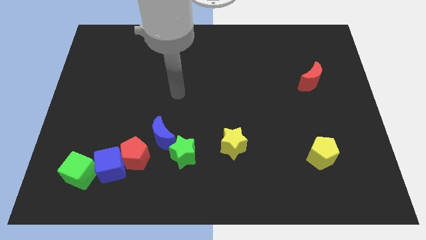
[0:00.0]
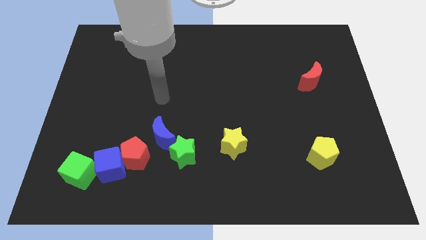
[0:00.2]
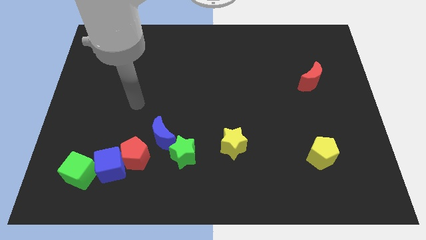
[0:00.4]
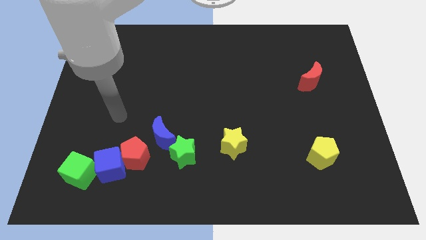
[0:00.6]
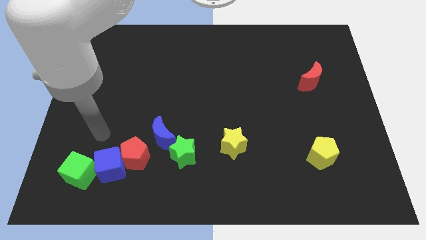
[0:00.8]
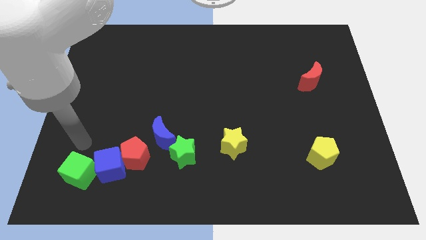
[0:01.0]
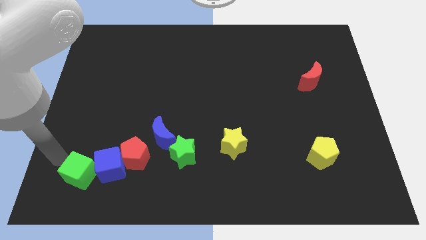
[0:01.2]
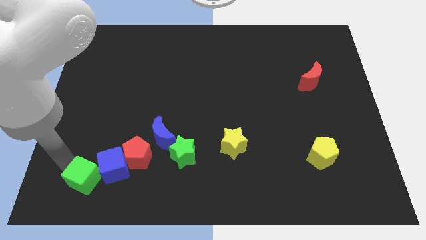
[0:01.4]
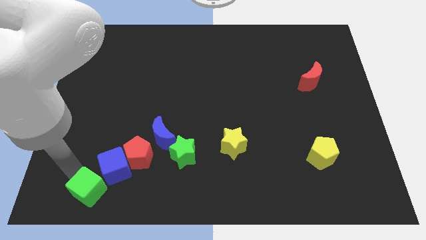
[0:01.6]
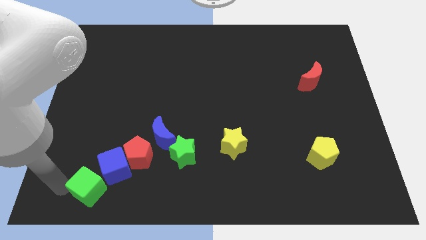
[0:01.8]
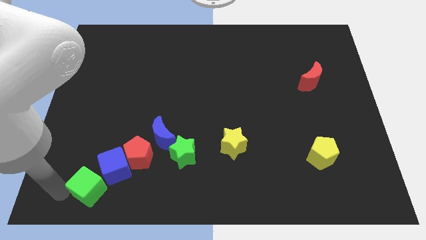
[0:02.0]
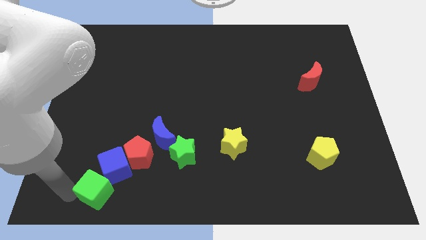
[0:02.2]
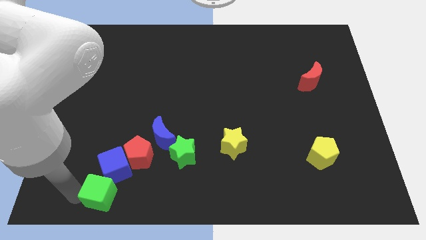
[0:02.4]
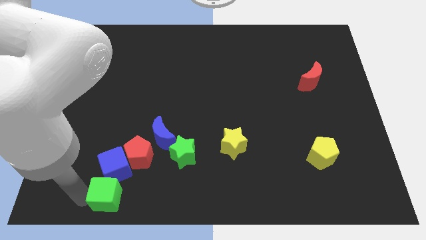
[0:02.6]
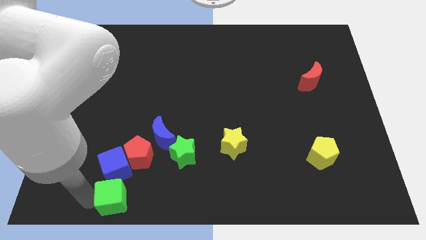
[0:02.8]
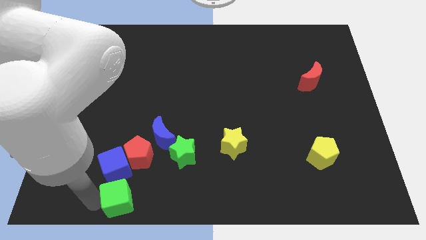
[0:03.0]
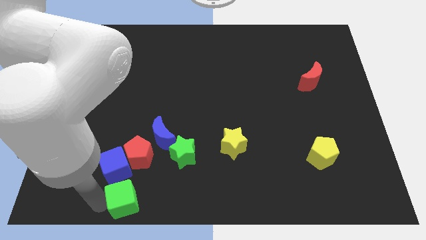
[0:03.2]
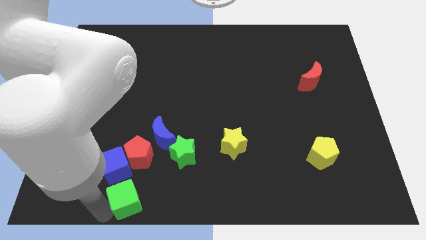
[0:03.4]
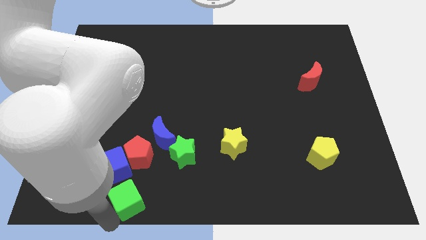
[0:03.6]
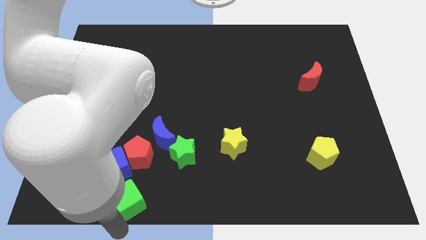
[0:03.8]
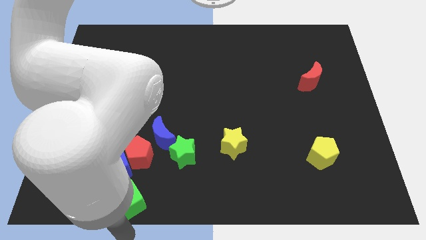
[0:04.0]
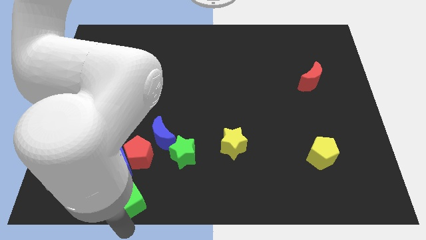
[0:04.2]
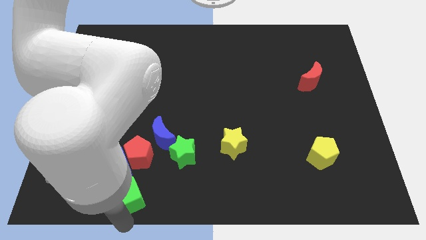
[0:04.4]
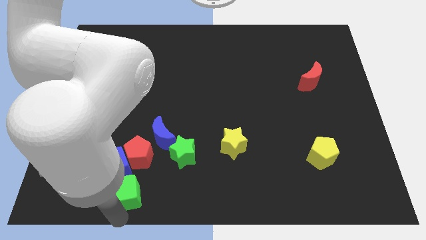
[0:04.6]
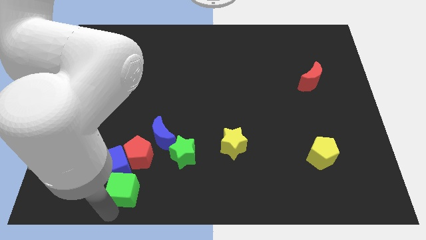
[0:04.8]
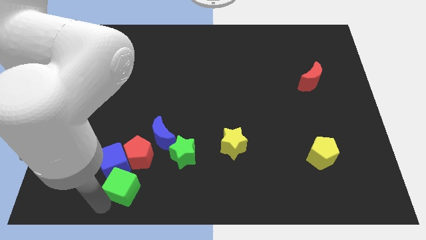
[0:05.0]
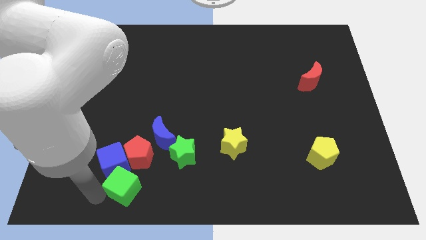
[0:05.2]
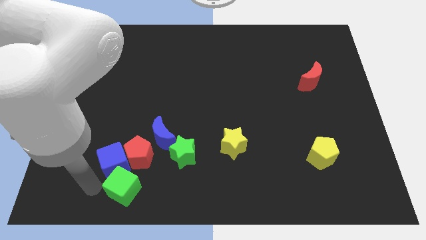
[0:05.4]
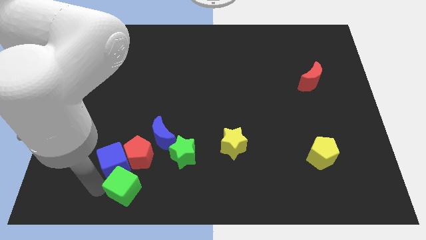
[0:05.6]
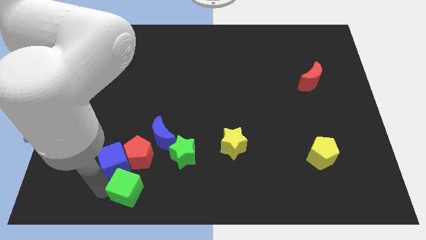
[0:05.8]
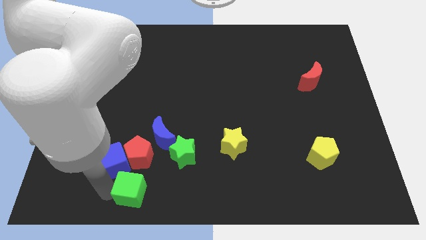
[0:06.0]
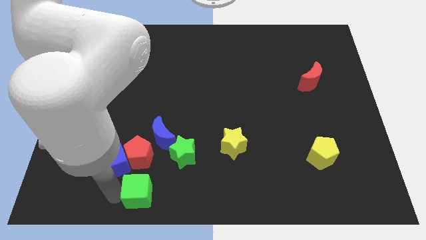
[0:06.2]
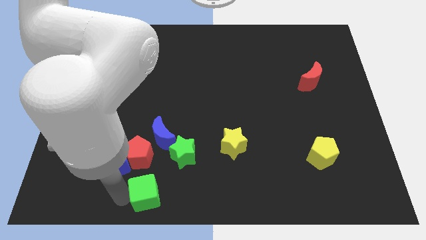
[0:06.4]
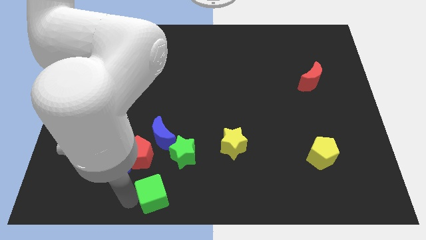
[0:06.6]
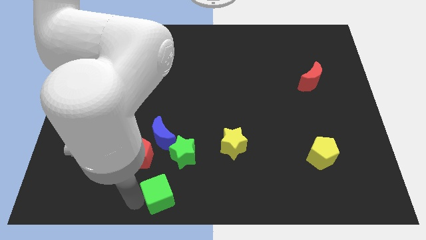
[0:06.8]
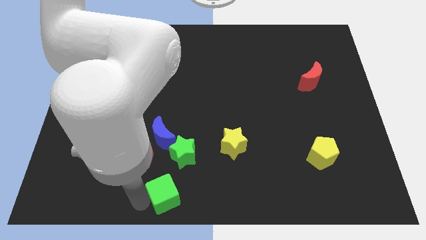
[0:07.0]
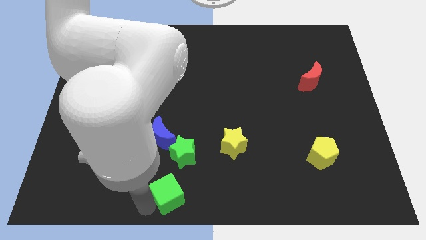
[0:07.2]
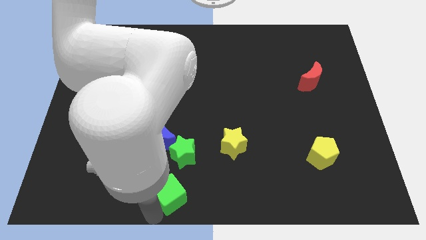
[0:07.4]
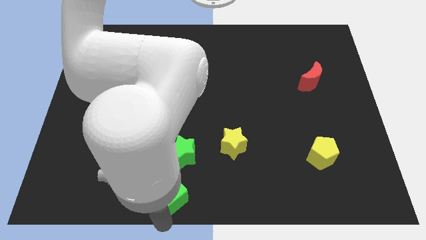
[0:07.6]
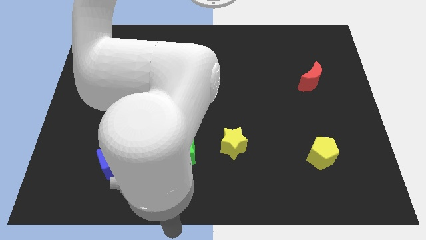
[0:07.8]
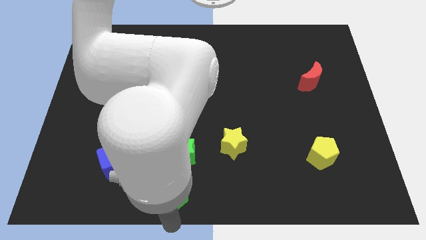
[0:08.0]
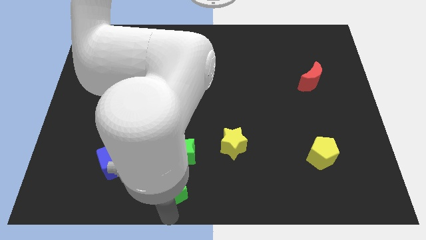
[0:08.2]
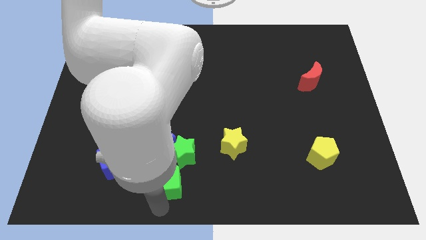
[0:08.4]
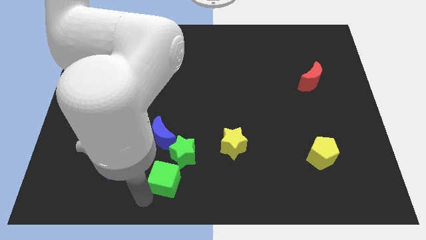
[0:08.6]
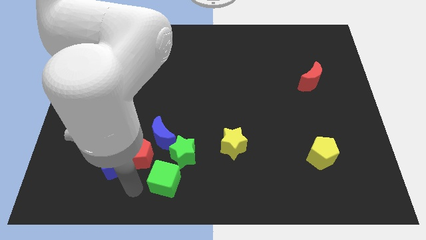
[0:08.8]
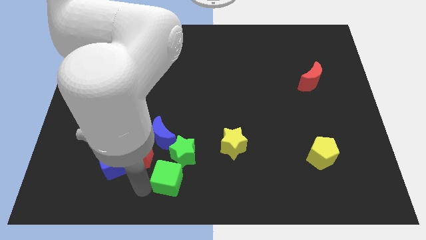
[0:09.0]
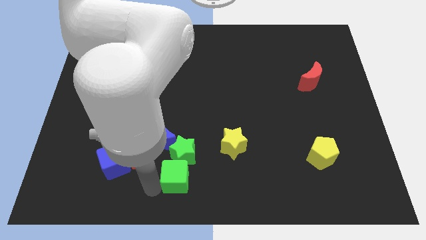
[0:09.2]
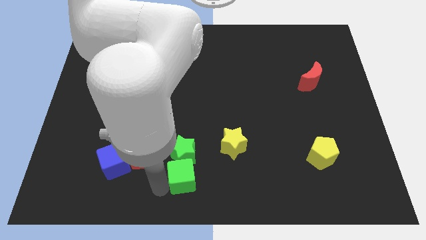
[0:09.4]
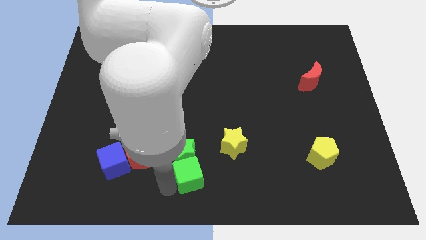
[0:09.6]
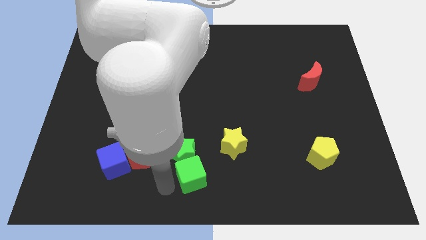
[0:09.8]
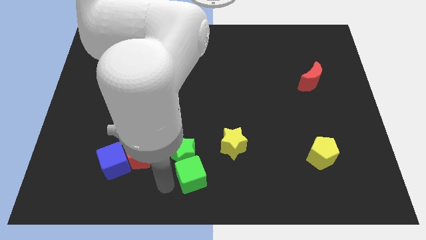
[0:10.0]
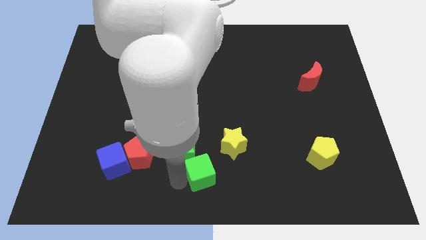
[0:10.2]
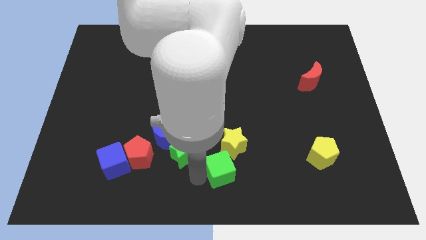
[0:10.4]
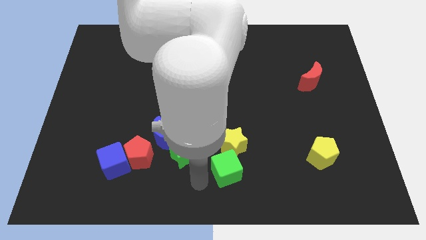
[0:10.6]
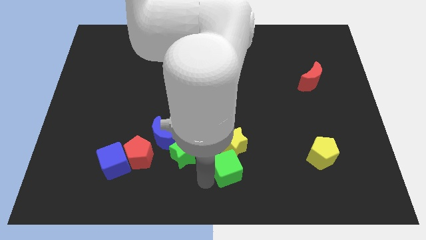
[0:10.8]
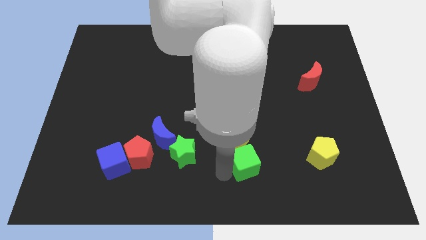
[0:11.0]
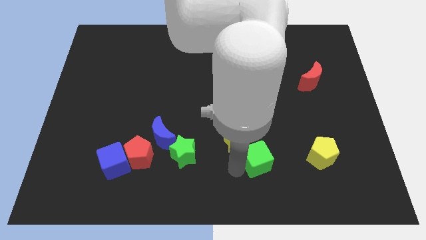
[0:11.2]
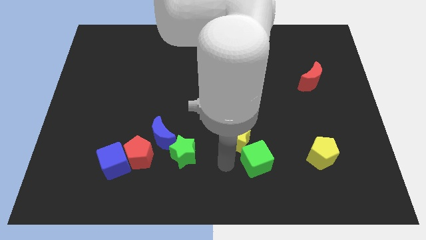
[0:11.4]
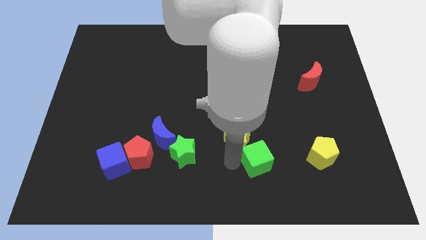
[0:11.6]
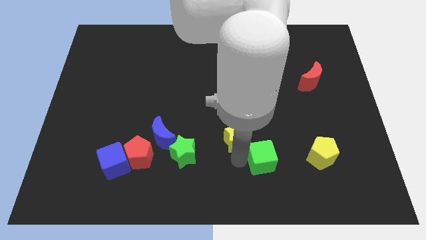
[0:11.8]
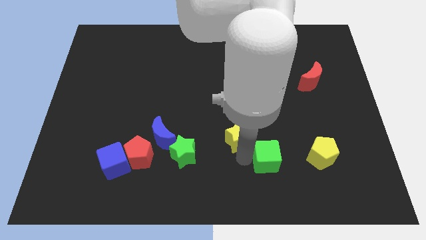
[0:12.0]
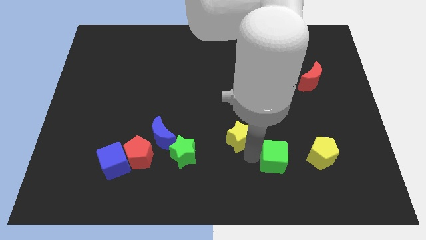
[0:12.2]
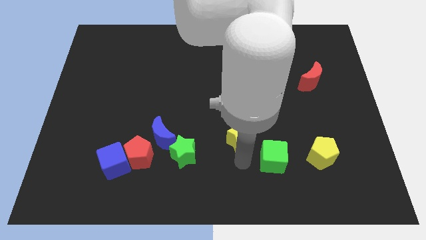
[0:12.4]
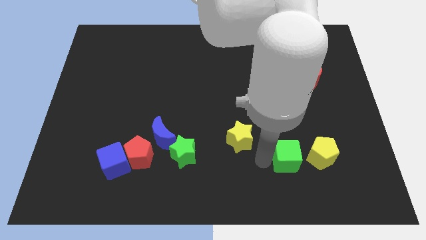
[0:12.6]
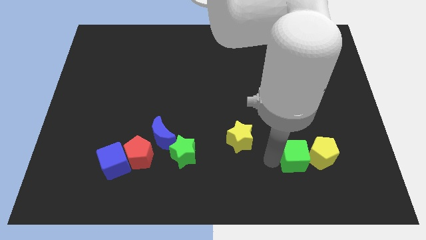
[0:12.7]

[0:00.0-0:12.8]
put the green cube close to the yellow pentagon

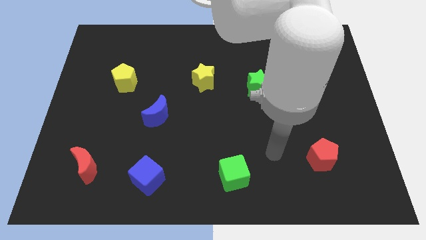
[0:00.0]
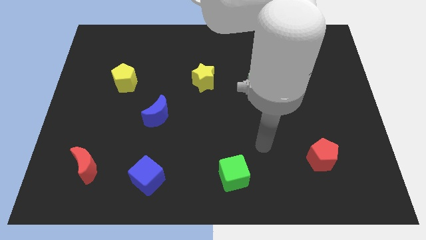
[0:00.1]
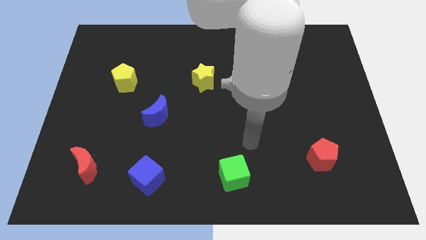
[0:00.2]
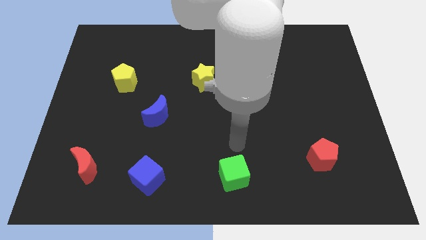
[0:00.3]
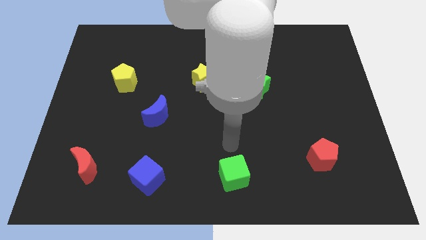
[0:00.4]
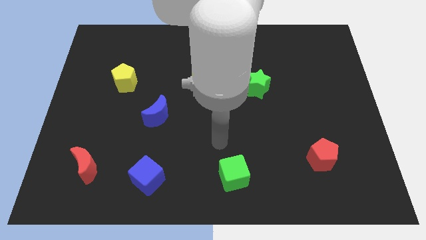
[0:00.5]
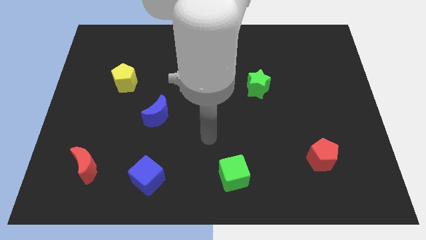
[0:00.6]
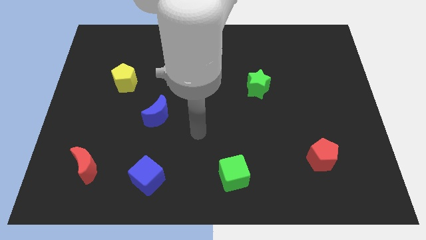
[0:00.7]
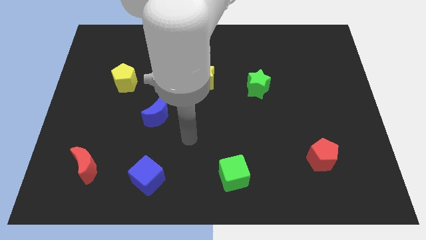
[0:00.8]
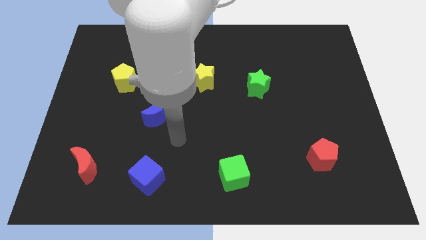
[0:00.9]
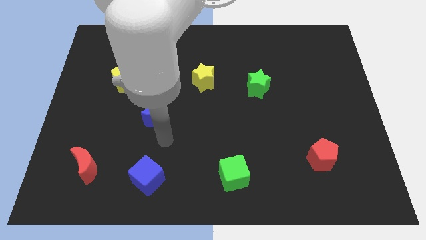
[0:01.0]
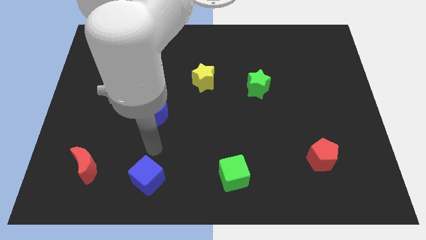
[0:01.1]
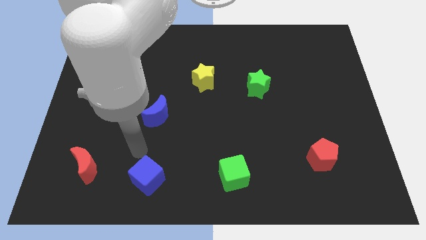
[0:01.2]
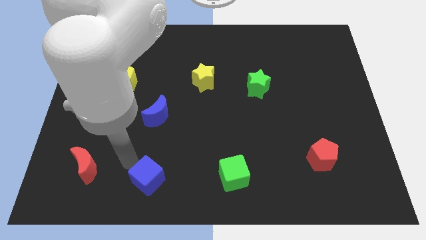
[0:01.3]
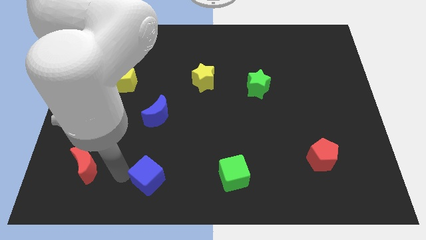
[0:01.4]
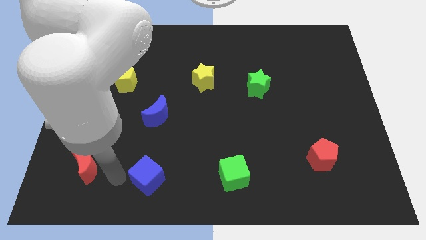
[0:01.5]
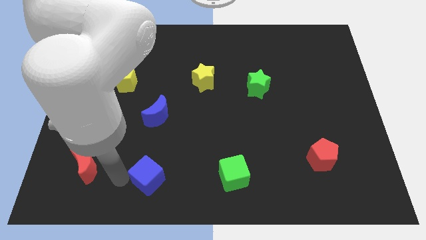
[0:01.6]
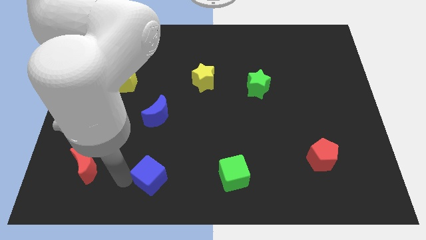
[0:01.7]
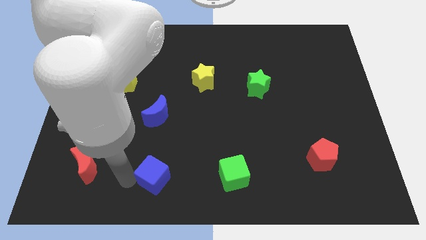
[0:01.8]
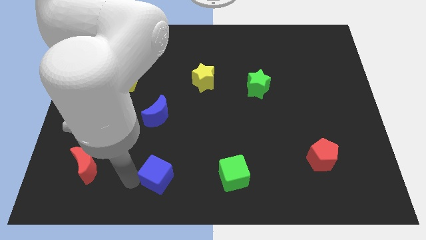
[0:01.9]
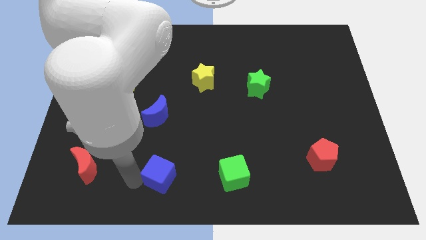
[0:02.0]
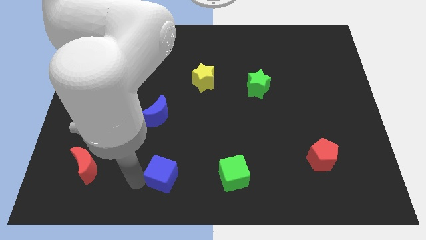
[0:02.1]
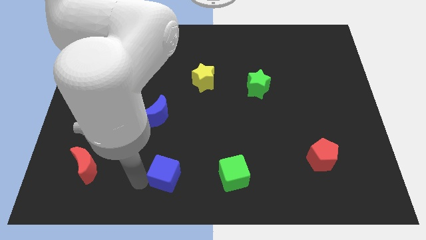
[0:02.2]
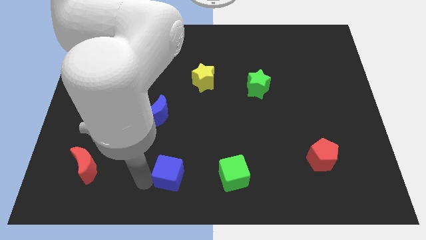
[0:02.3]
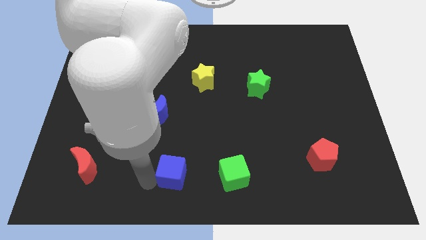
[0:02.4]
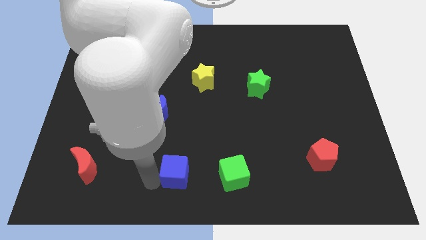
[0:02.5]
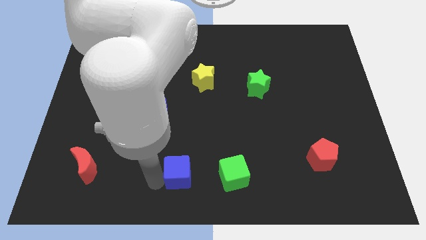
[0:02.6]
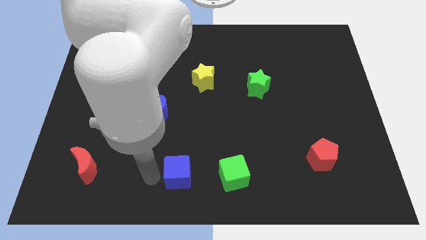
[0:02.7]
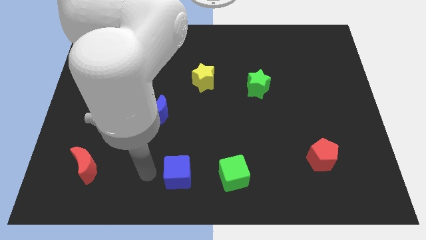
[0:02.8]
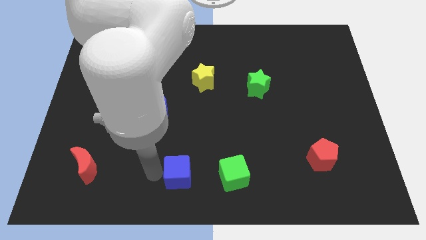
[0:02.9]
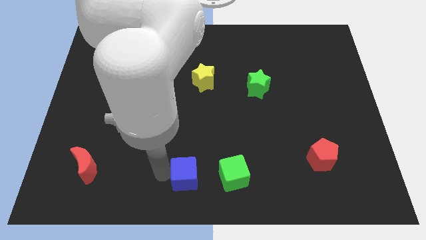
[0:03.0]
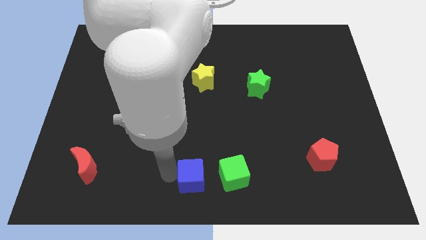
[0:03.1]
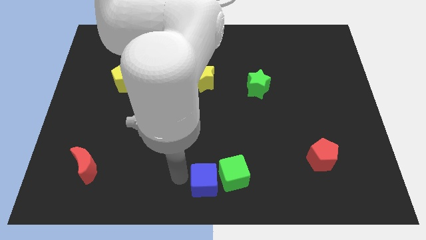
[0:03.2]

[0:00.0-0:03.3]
move the blue cube close to the green cube
